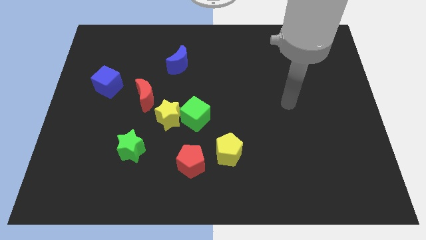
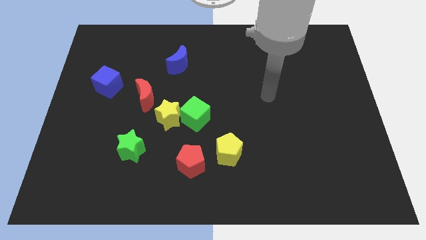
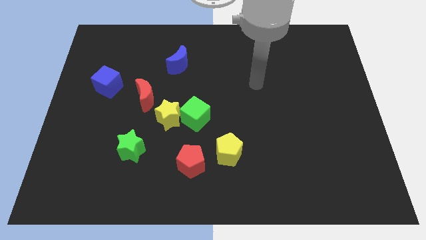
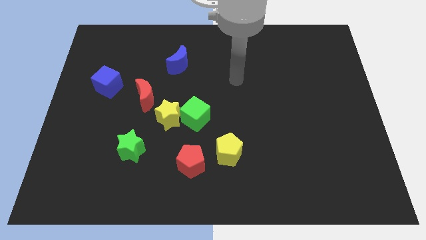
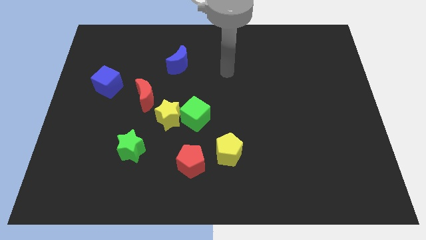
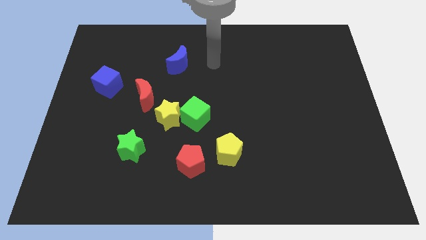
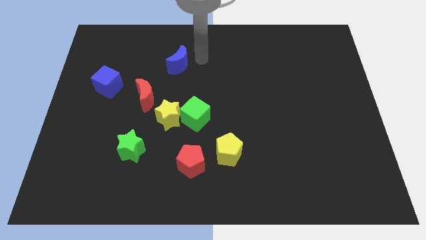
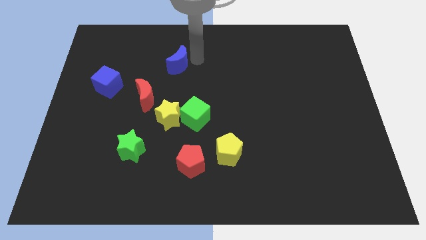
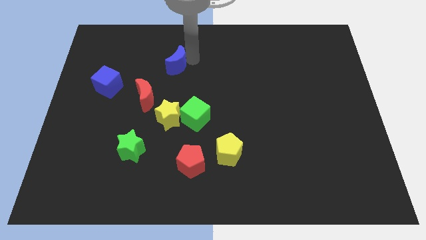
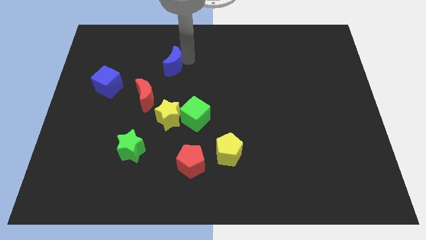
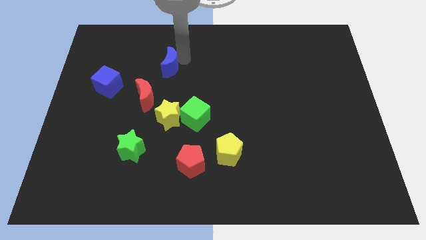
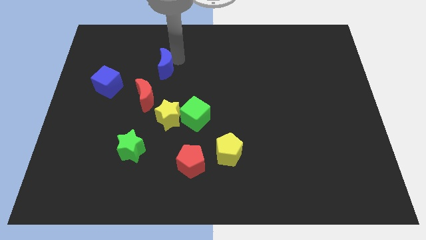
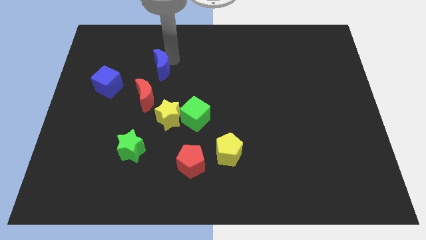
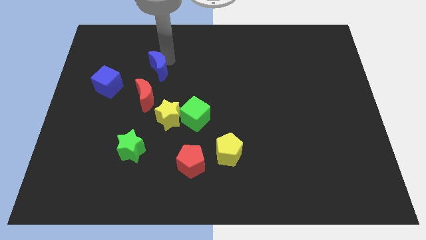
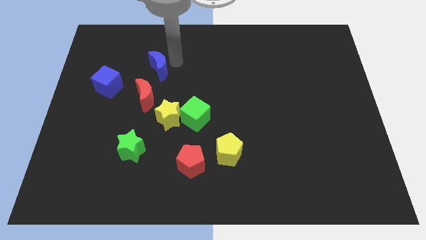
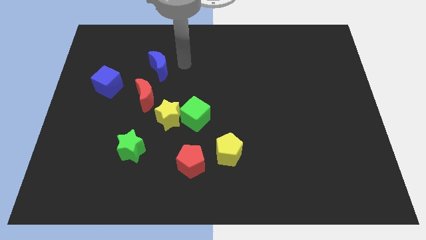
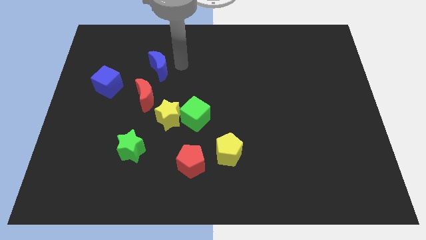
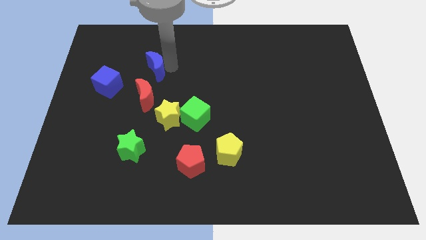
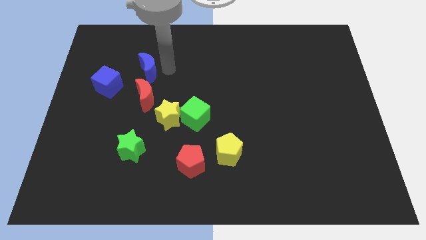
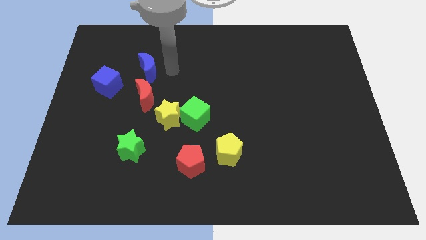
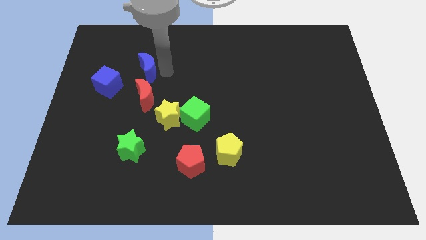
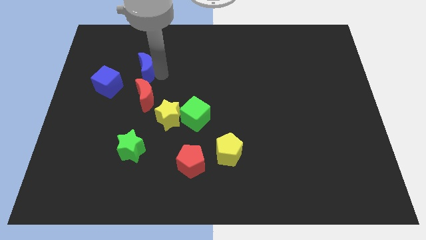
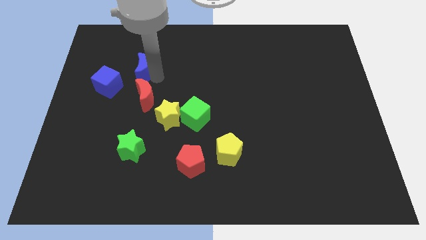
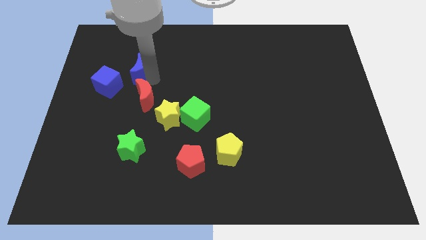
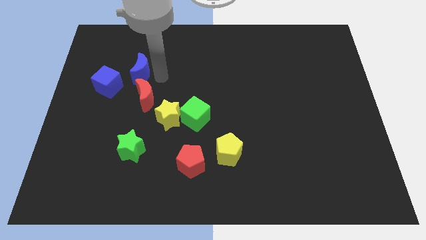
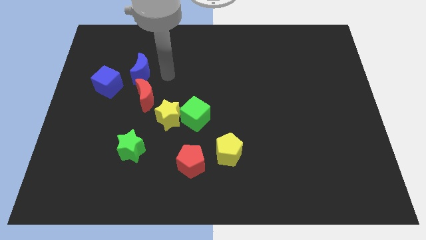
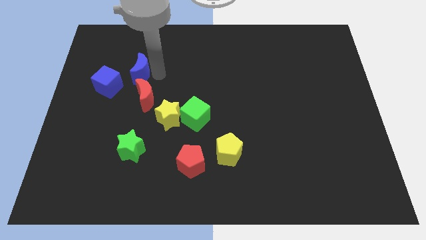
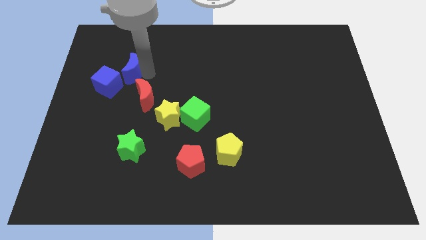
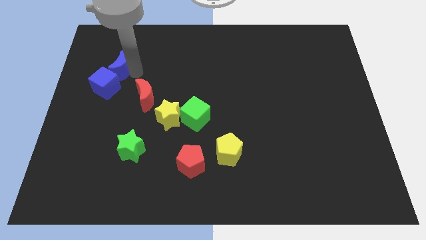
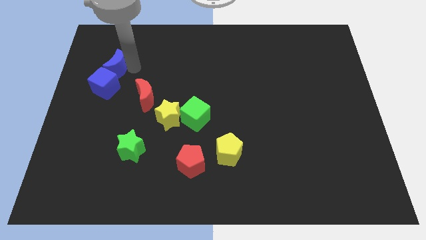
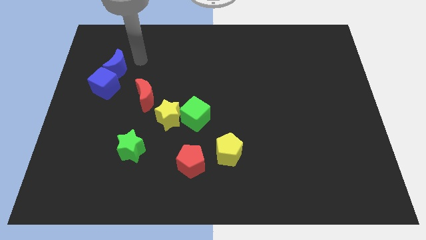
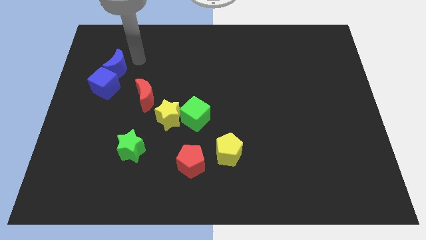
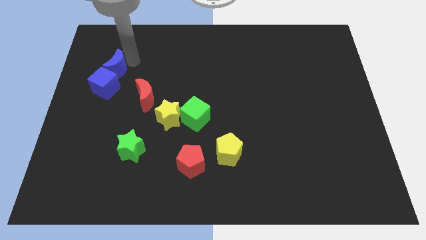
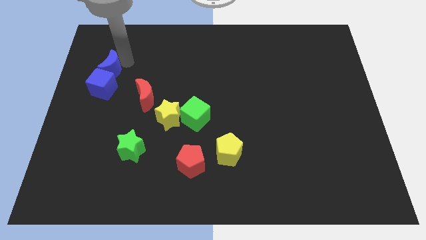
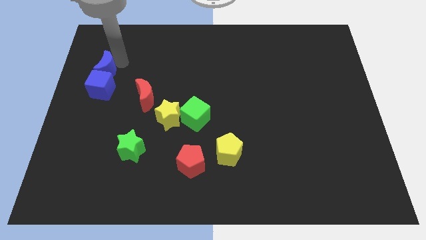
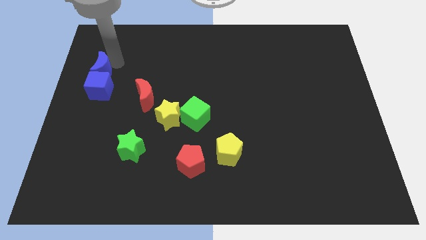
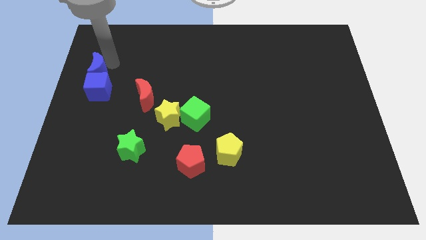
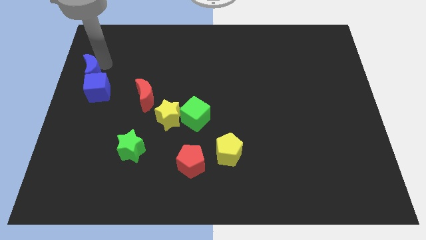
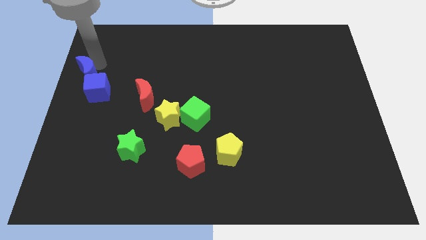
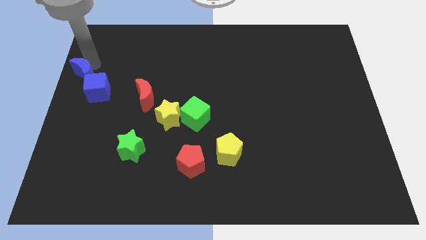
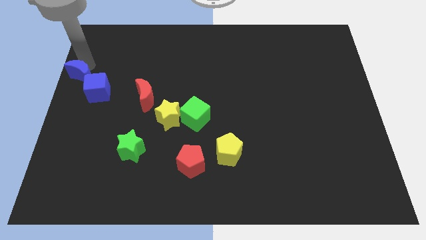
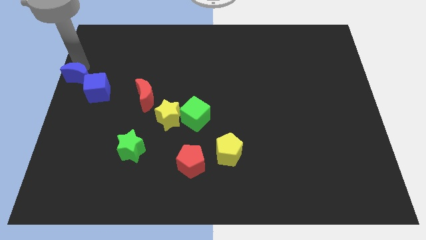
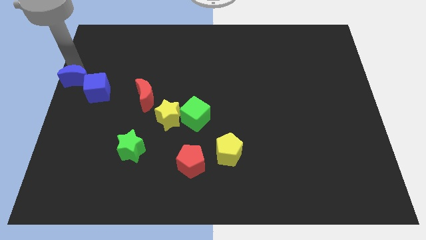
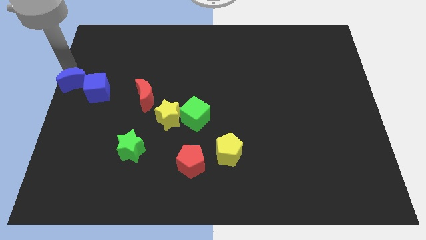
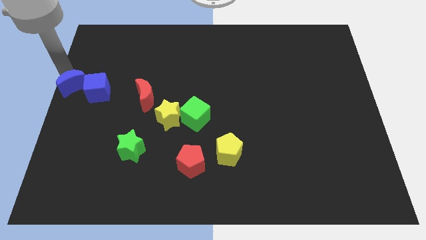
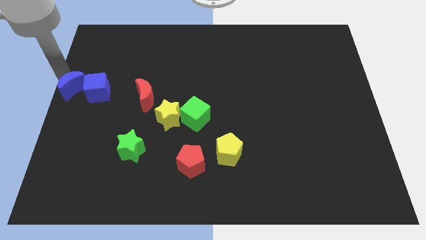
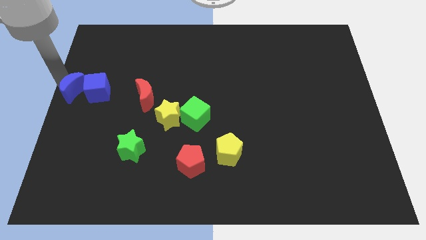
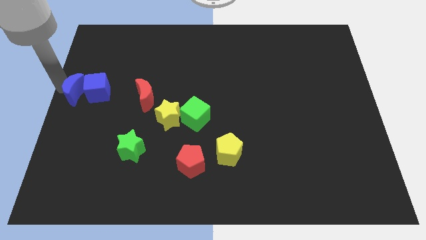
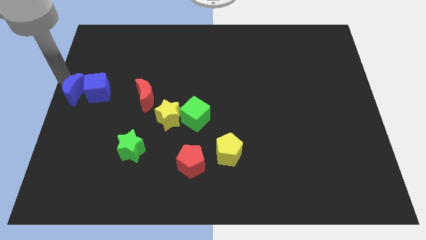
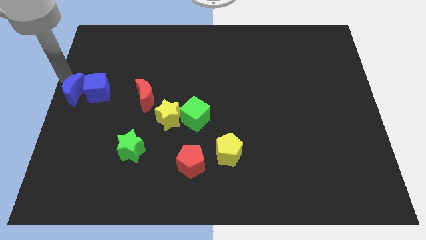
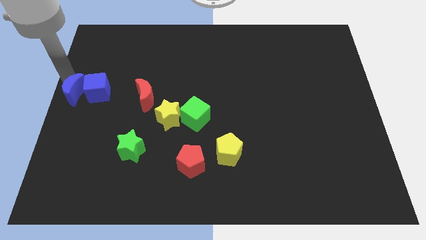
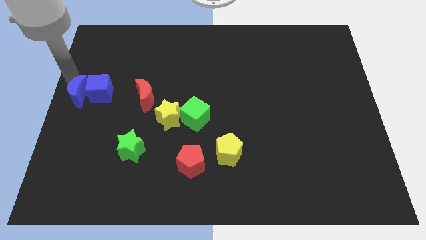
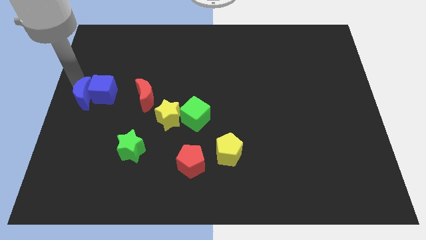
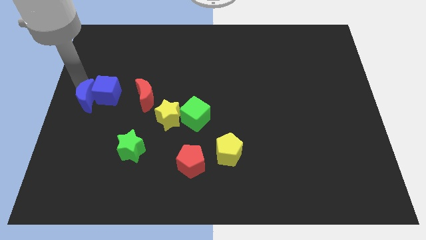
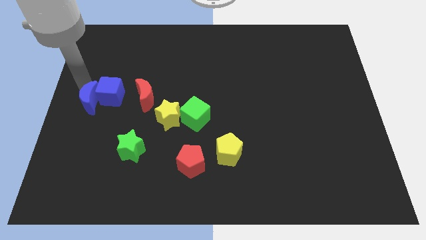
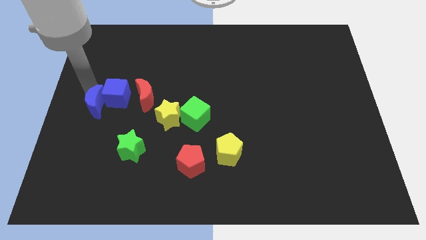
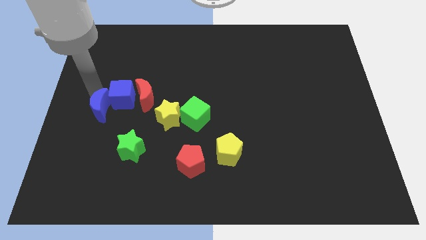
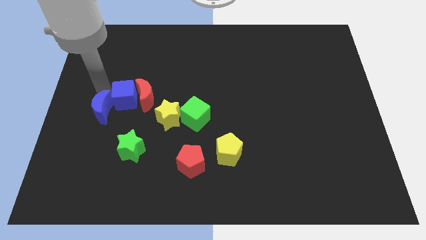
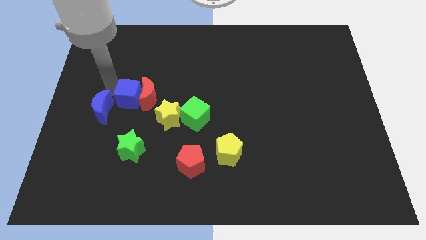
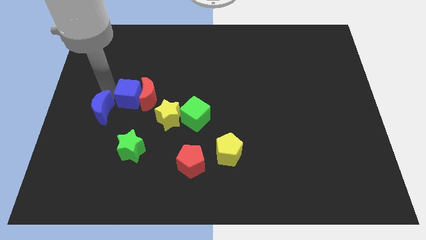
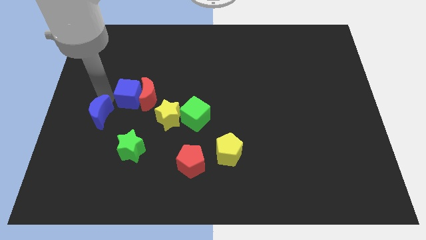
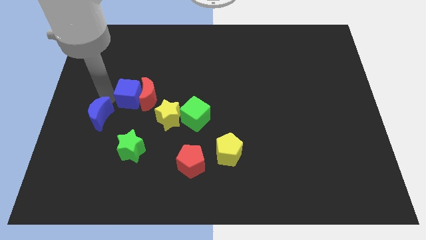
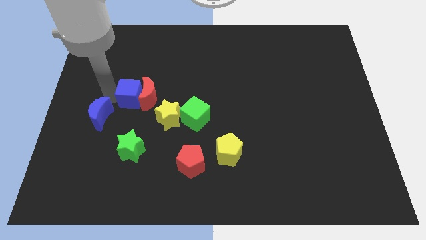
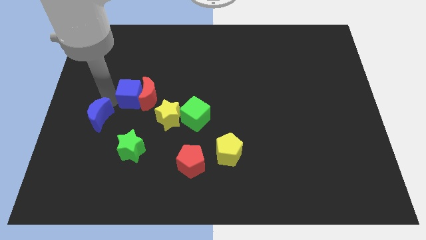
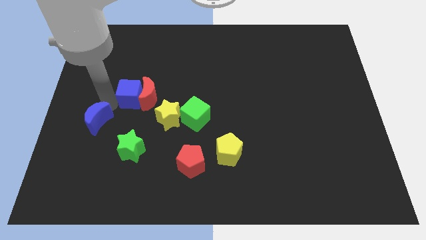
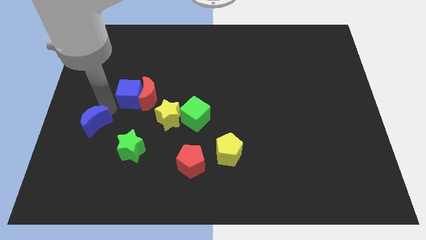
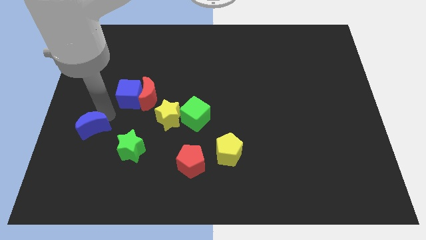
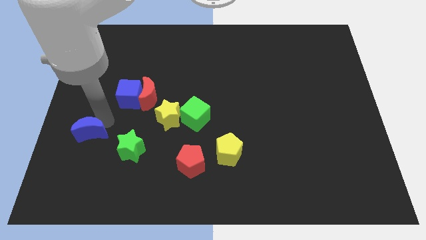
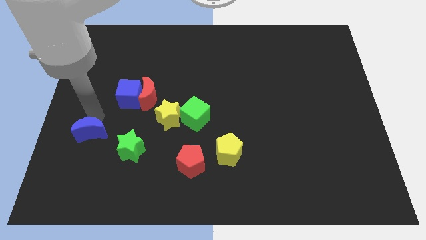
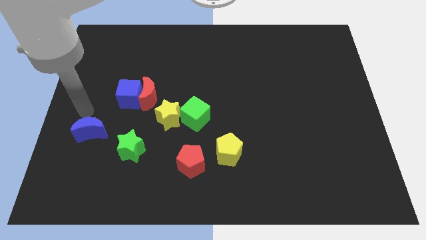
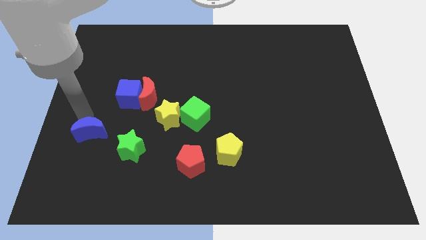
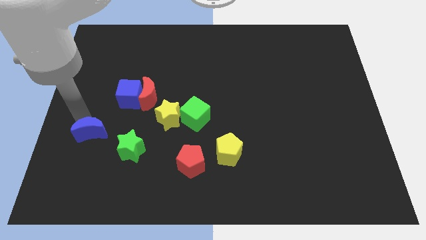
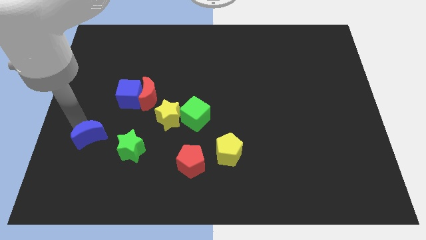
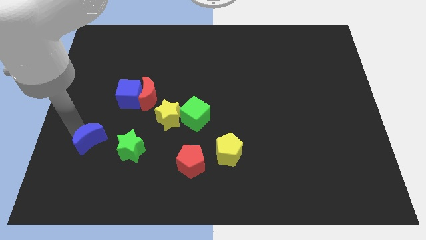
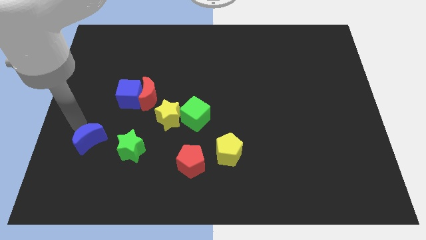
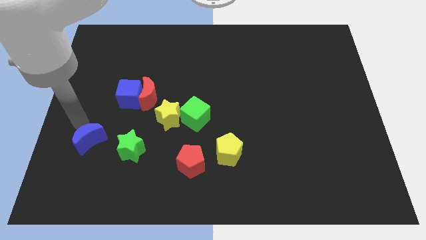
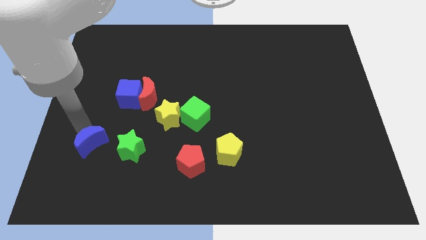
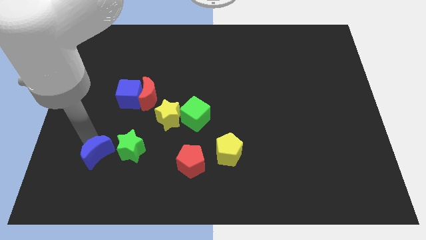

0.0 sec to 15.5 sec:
push the blue moon diagonally down and to the left of the green star
